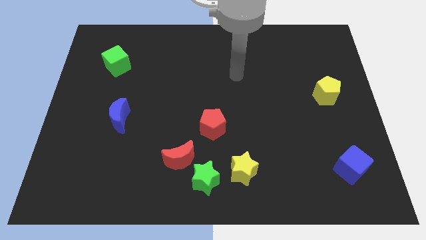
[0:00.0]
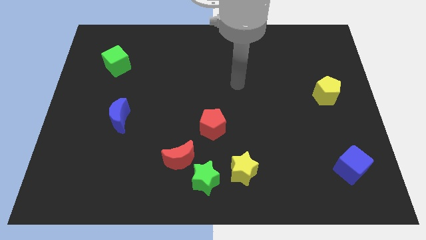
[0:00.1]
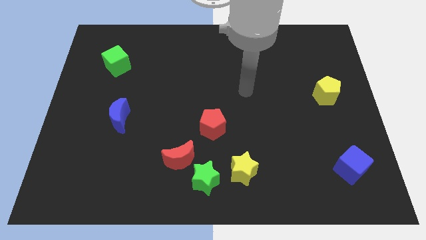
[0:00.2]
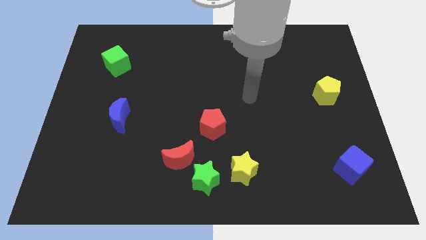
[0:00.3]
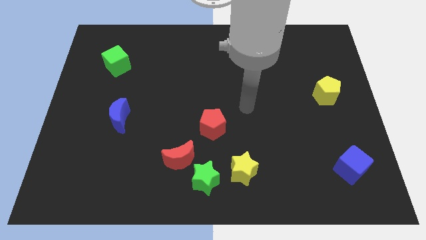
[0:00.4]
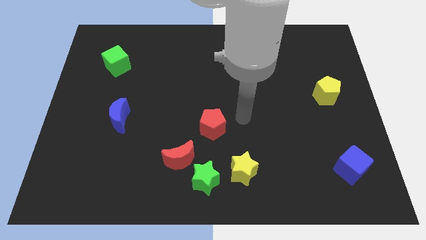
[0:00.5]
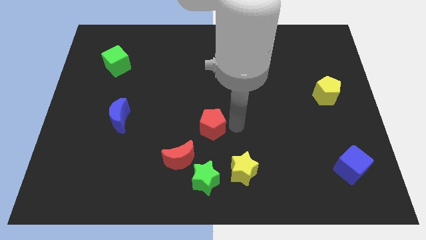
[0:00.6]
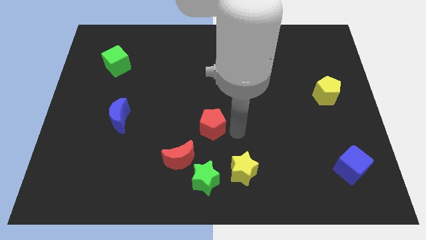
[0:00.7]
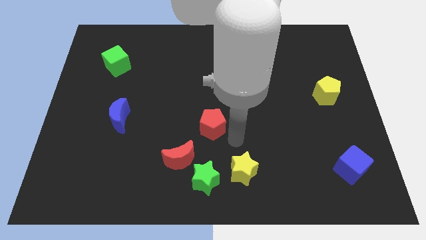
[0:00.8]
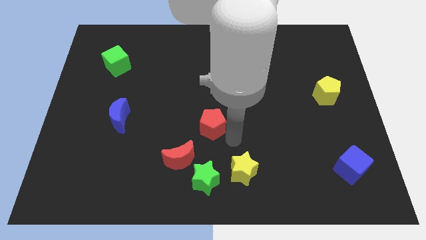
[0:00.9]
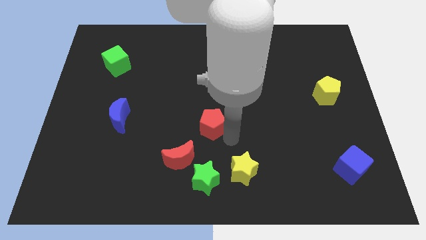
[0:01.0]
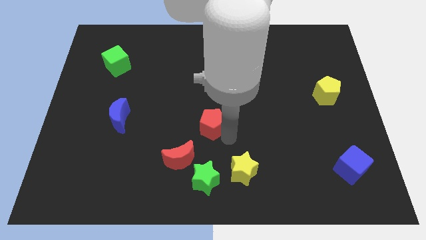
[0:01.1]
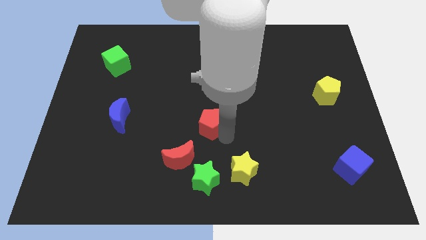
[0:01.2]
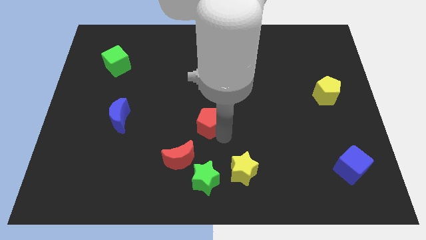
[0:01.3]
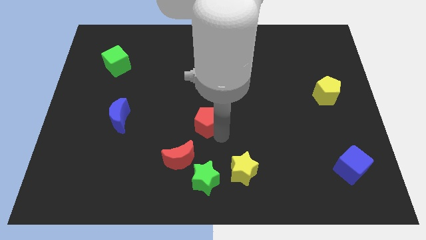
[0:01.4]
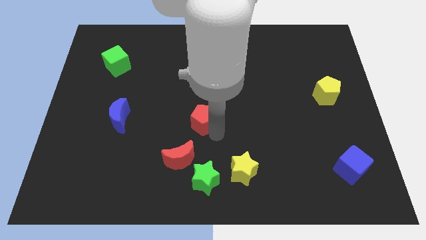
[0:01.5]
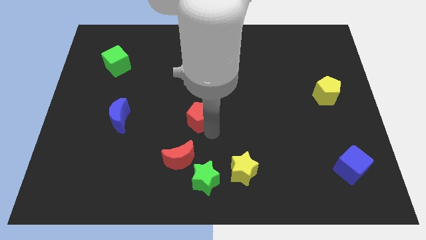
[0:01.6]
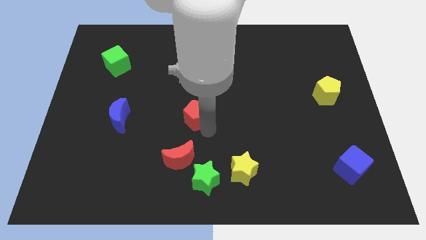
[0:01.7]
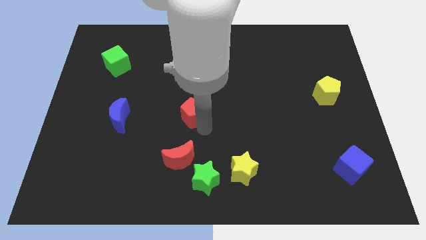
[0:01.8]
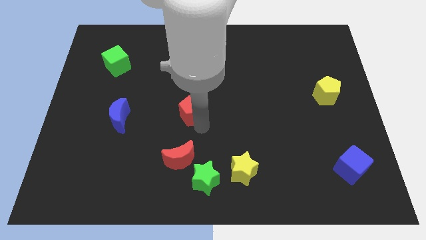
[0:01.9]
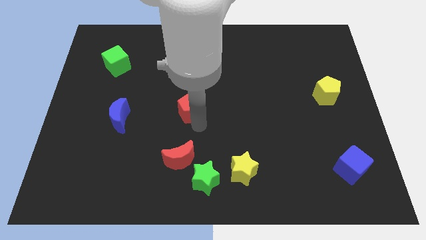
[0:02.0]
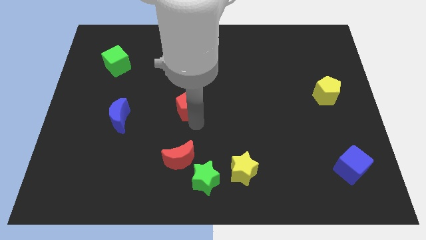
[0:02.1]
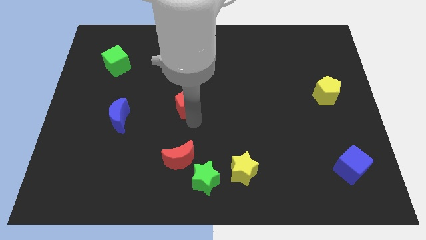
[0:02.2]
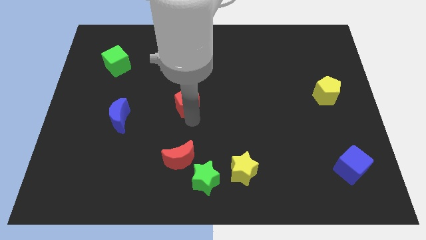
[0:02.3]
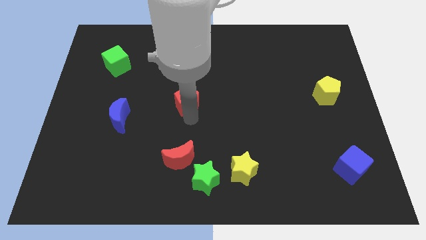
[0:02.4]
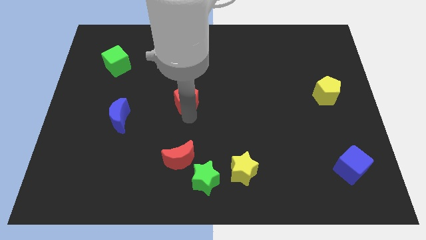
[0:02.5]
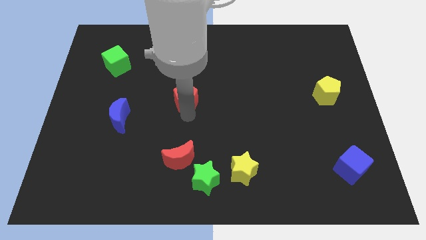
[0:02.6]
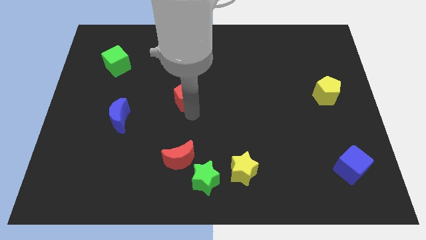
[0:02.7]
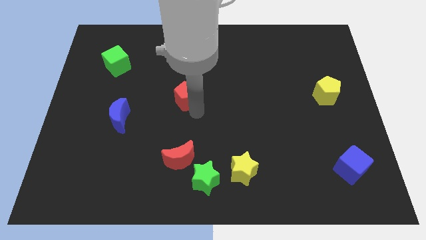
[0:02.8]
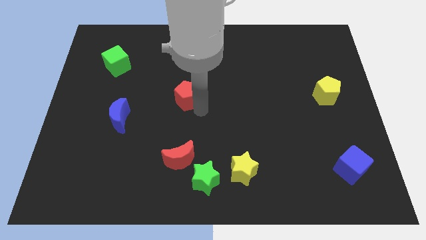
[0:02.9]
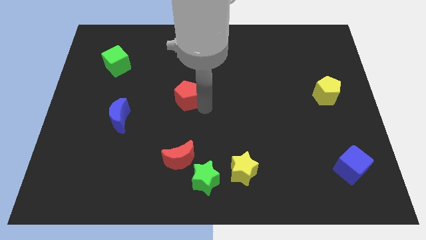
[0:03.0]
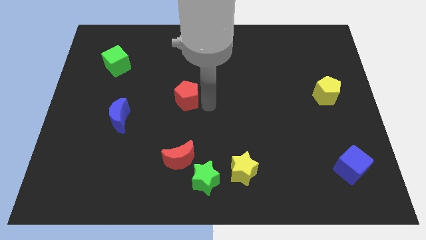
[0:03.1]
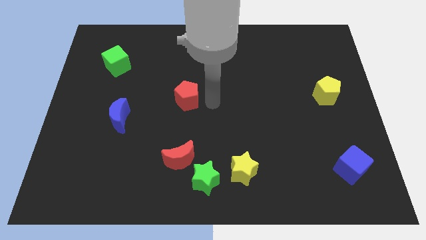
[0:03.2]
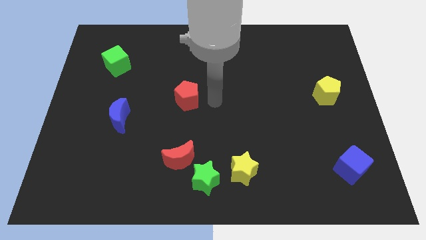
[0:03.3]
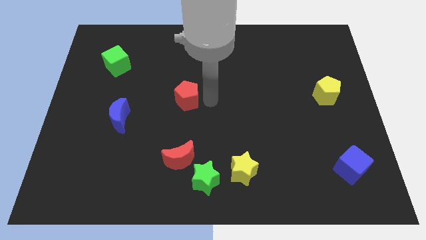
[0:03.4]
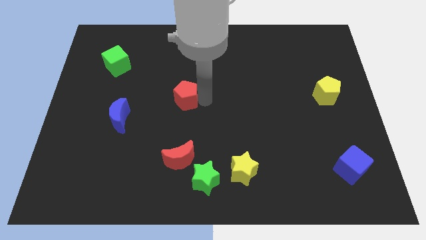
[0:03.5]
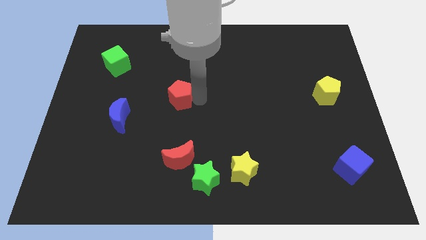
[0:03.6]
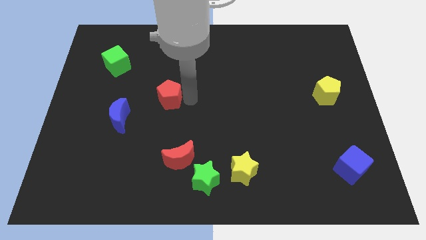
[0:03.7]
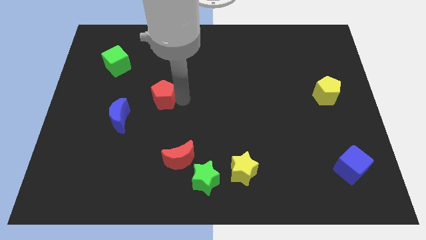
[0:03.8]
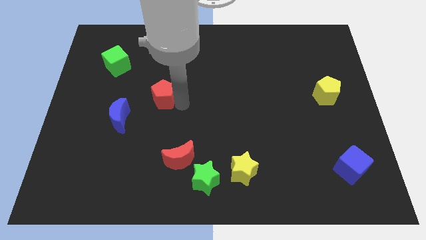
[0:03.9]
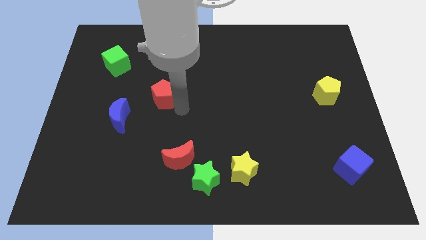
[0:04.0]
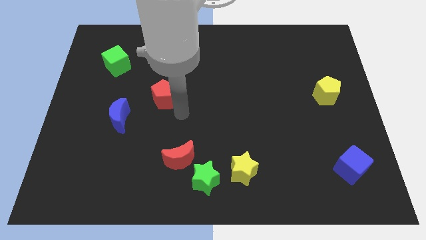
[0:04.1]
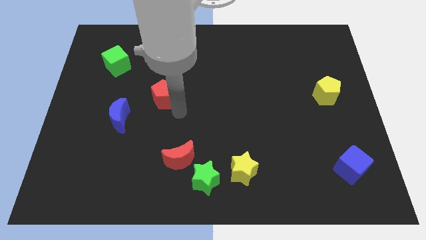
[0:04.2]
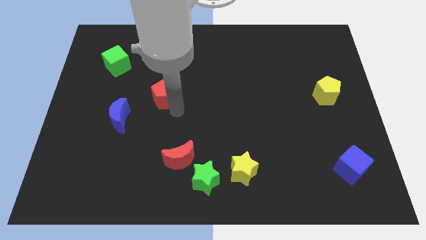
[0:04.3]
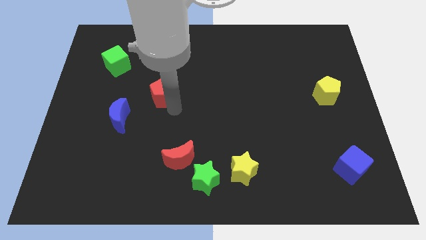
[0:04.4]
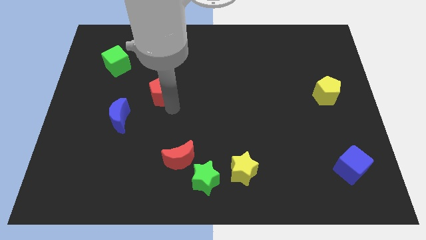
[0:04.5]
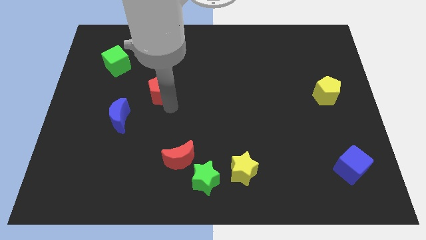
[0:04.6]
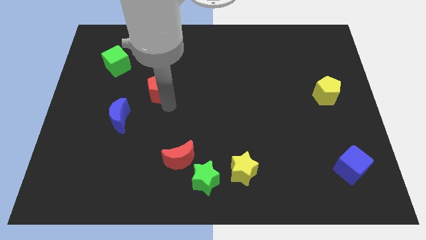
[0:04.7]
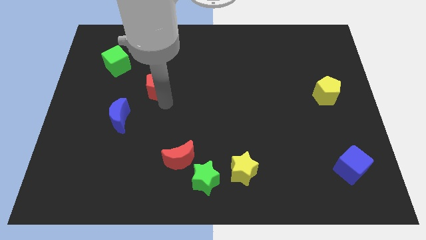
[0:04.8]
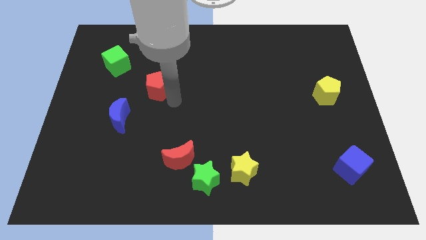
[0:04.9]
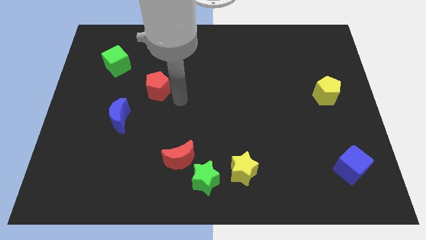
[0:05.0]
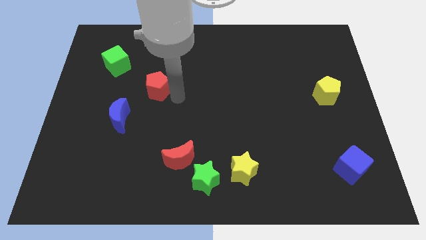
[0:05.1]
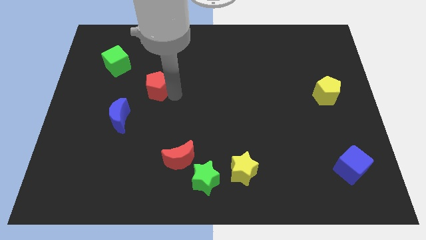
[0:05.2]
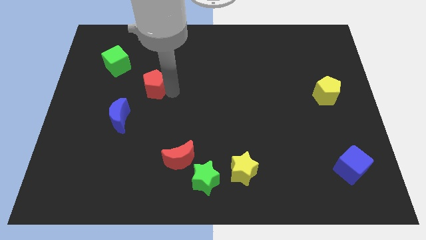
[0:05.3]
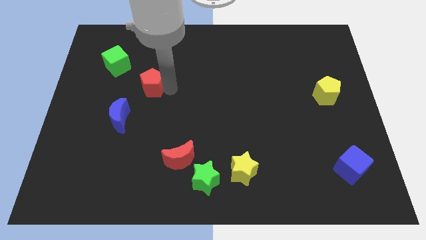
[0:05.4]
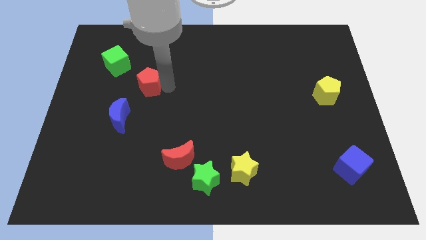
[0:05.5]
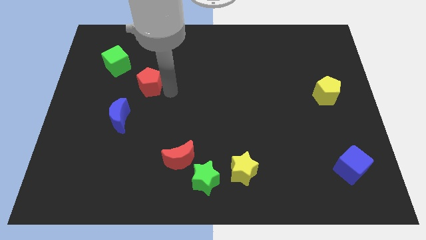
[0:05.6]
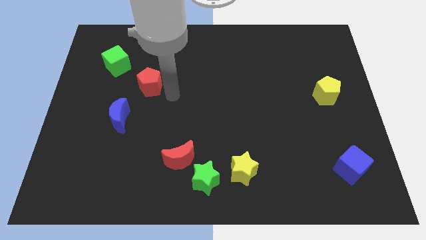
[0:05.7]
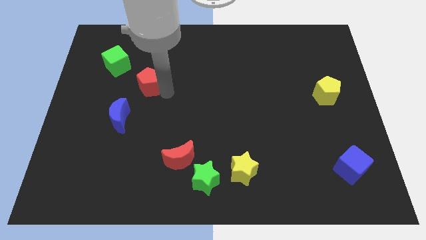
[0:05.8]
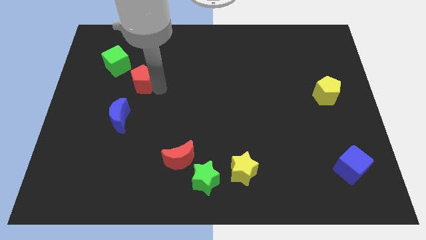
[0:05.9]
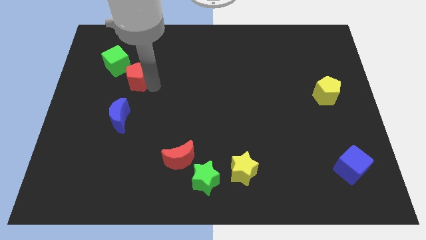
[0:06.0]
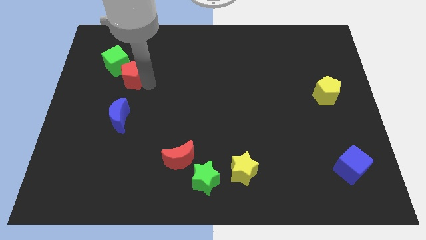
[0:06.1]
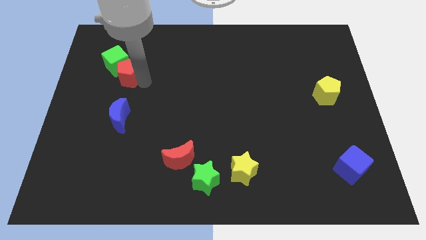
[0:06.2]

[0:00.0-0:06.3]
move the red pentagon close to the green cube

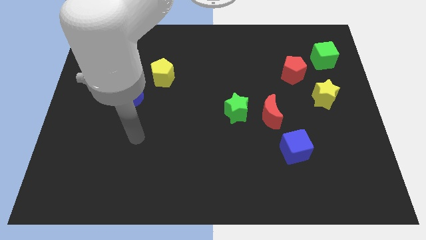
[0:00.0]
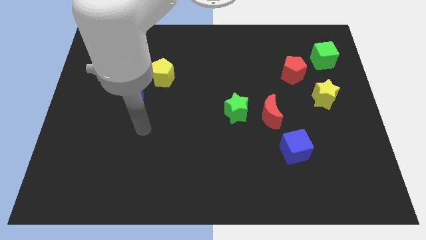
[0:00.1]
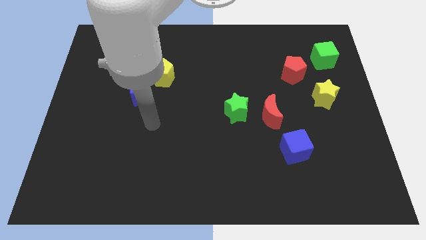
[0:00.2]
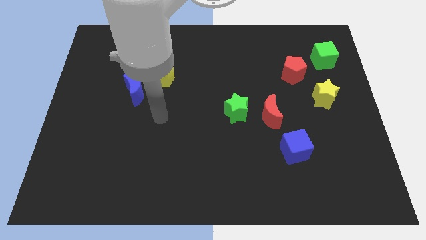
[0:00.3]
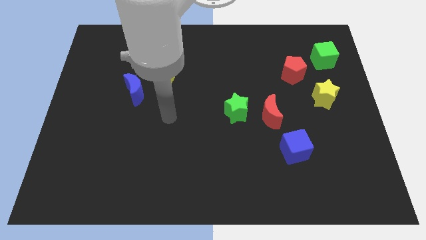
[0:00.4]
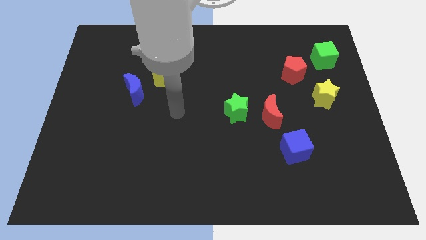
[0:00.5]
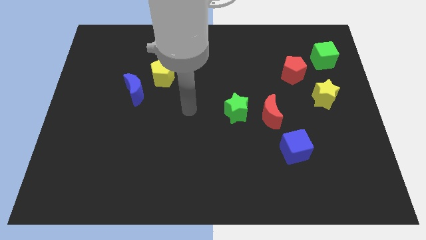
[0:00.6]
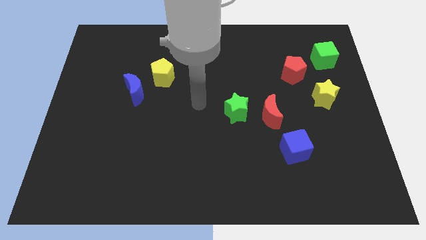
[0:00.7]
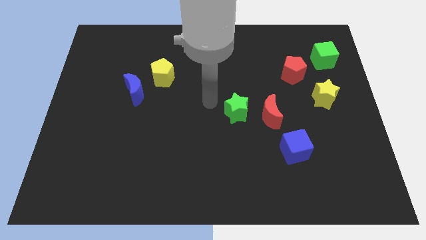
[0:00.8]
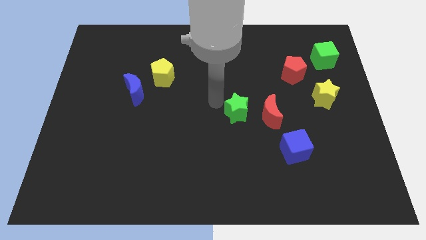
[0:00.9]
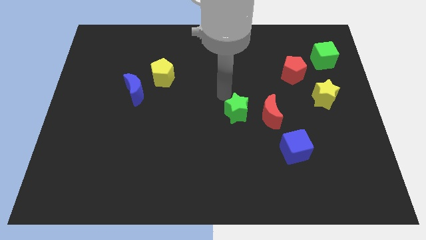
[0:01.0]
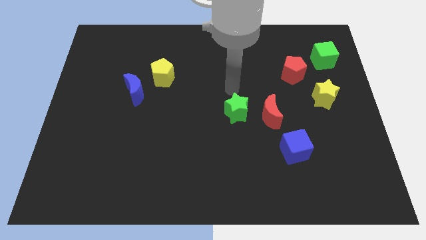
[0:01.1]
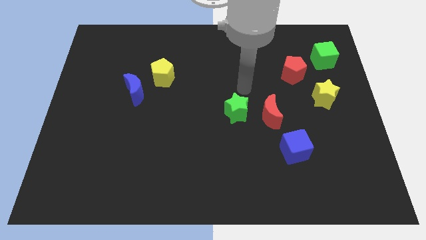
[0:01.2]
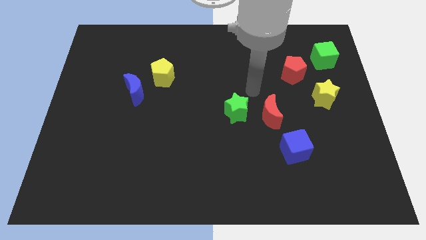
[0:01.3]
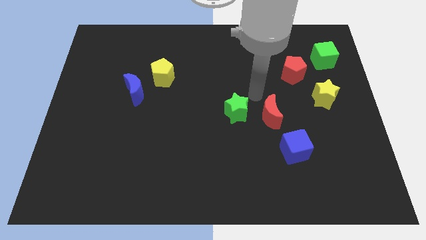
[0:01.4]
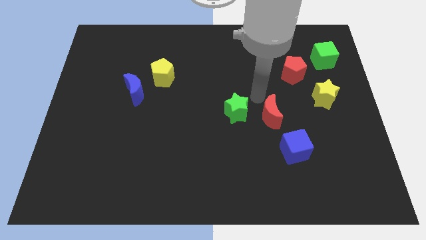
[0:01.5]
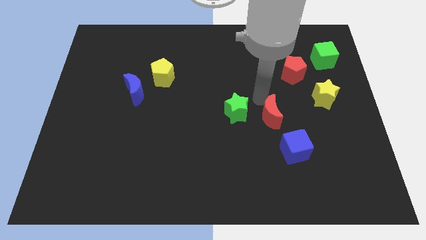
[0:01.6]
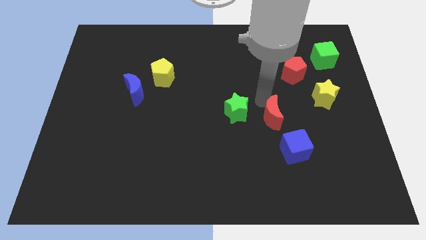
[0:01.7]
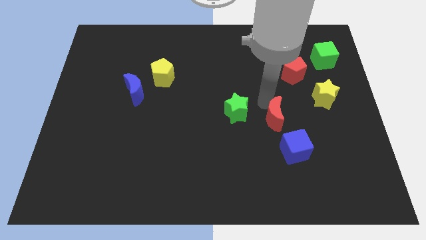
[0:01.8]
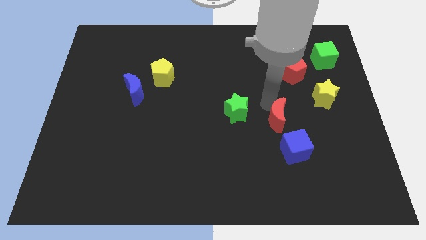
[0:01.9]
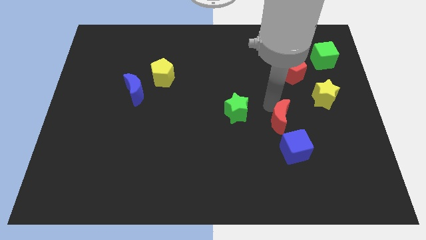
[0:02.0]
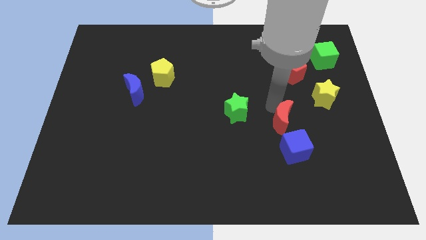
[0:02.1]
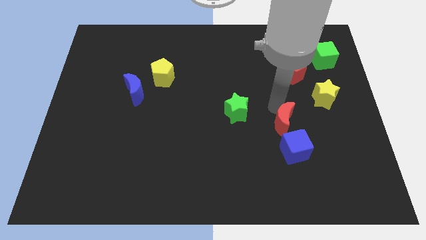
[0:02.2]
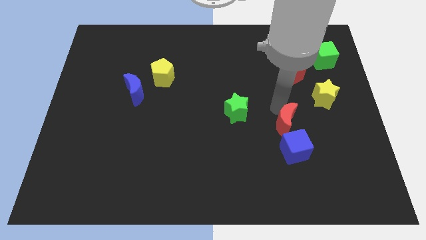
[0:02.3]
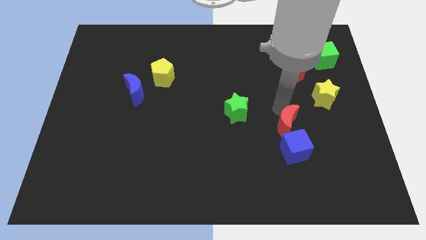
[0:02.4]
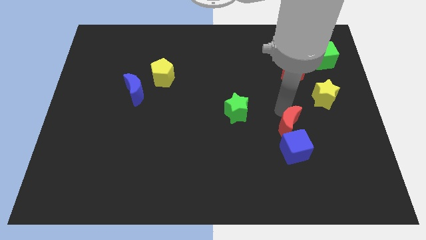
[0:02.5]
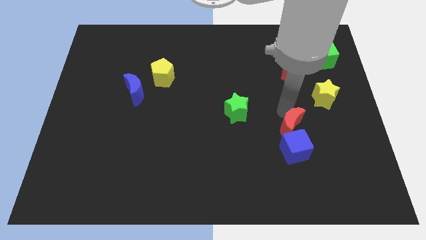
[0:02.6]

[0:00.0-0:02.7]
push the red moon to the blue cube
